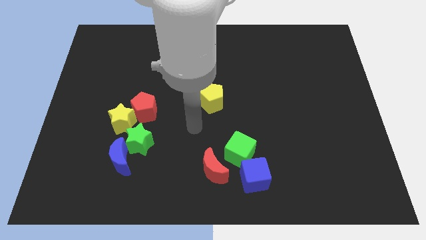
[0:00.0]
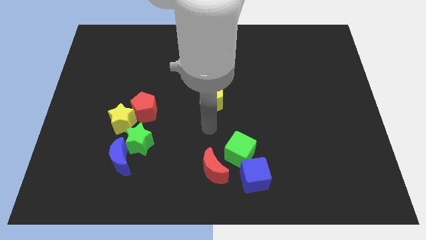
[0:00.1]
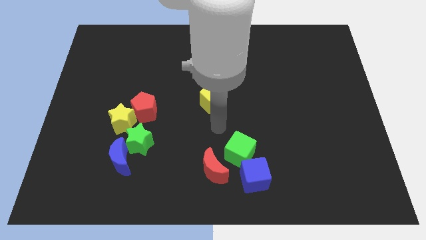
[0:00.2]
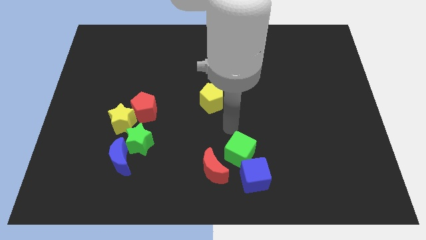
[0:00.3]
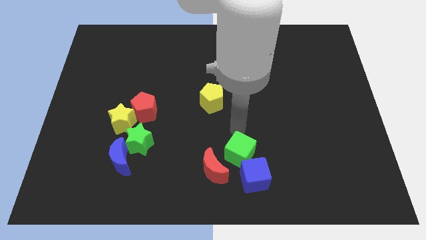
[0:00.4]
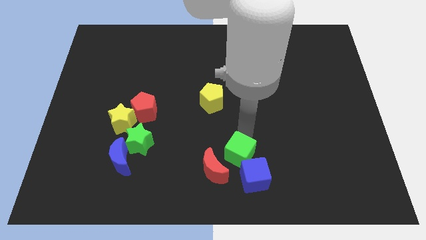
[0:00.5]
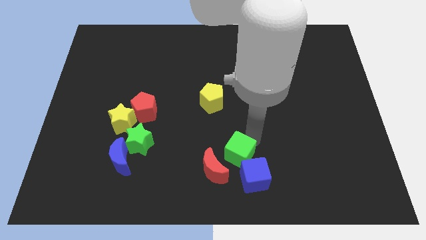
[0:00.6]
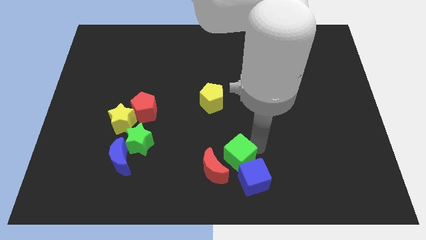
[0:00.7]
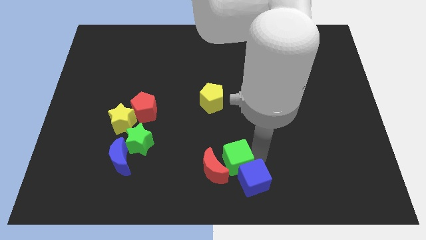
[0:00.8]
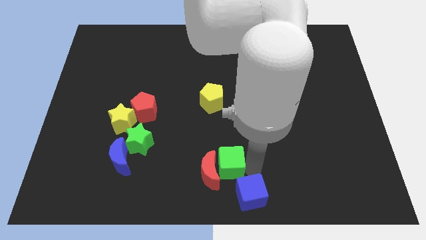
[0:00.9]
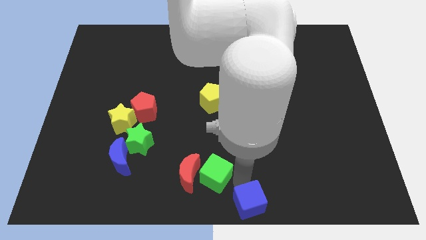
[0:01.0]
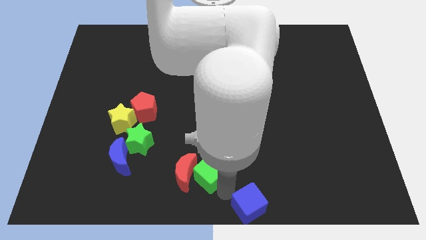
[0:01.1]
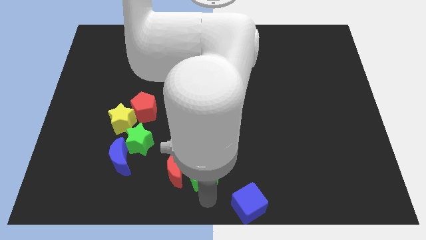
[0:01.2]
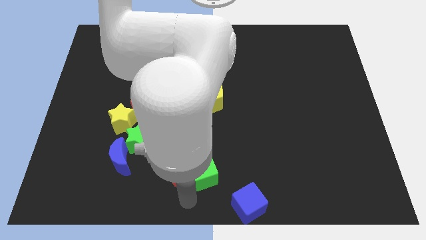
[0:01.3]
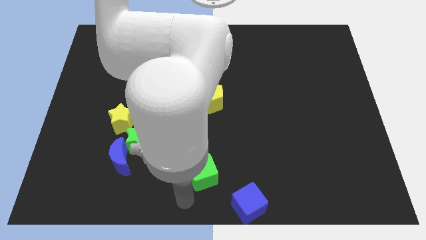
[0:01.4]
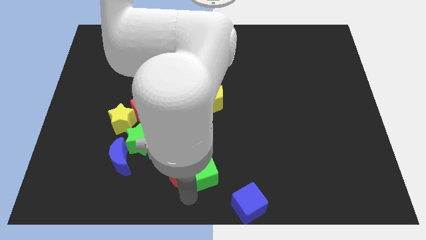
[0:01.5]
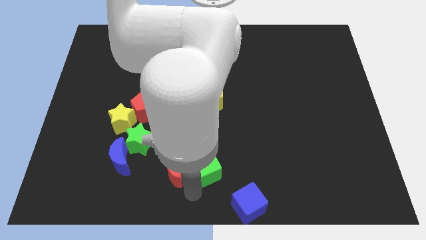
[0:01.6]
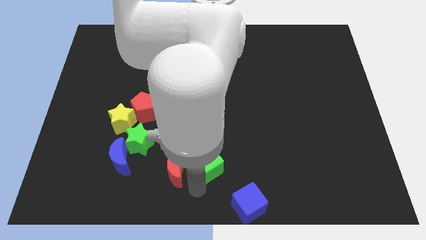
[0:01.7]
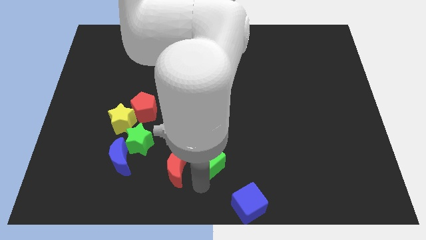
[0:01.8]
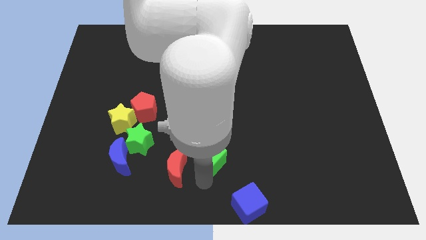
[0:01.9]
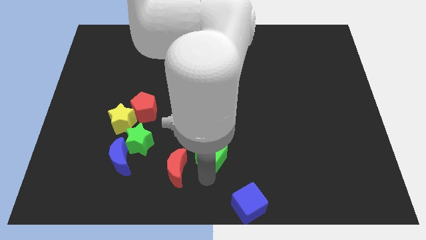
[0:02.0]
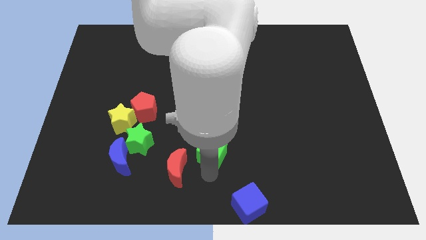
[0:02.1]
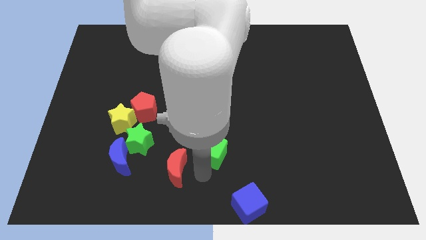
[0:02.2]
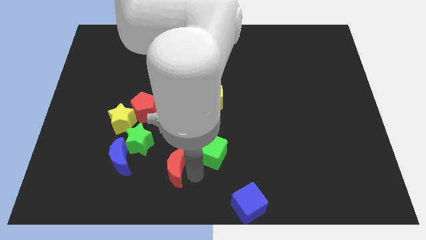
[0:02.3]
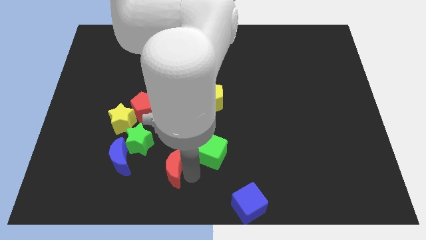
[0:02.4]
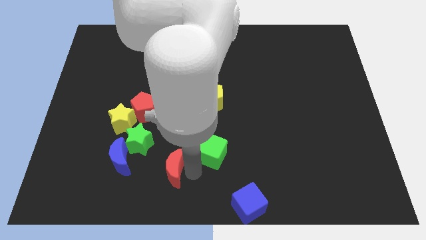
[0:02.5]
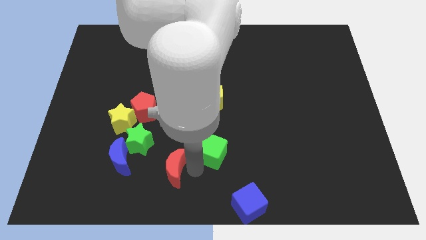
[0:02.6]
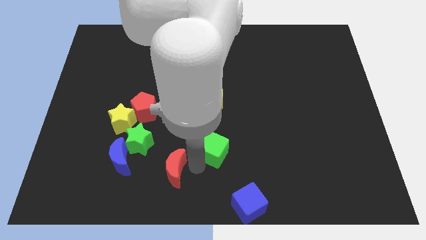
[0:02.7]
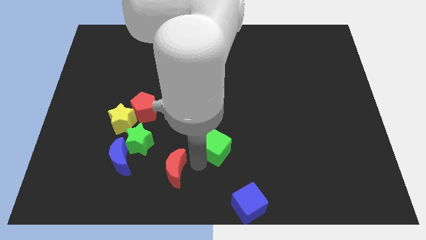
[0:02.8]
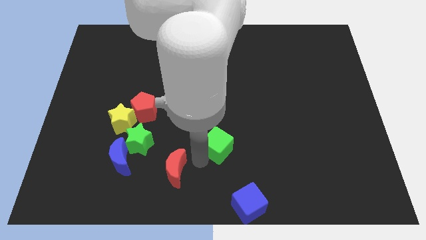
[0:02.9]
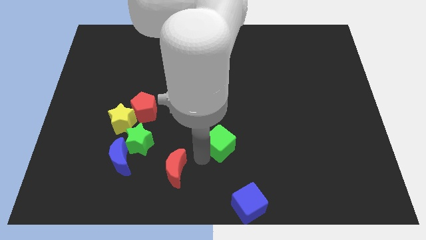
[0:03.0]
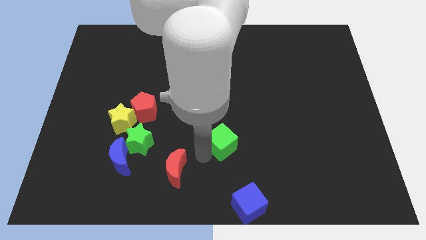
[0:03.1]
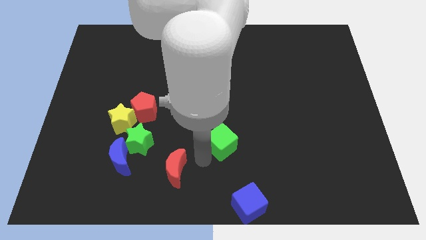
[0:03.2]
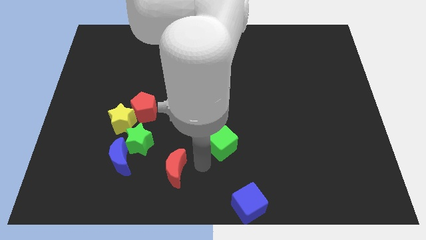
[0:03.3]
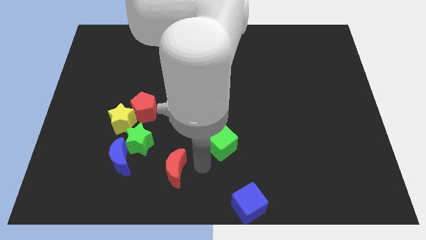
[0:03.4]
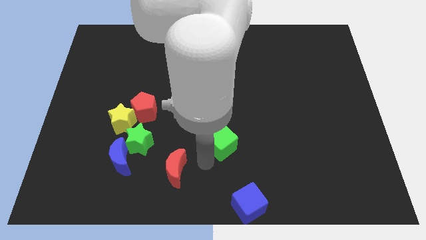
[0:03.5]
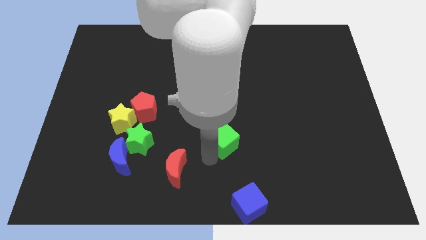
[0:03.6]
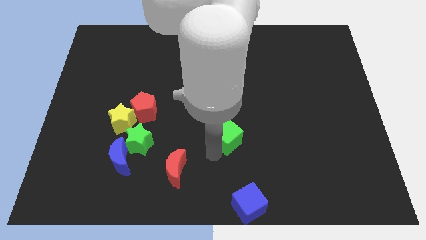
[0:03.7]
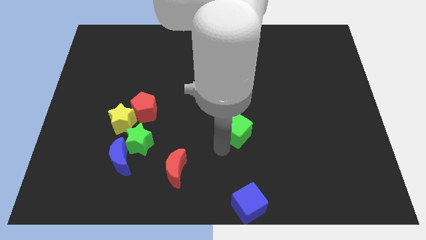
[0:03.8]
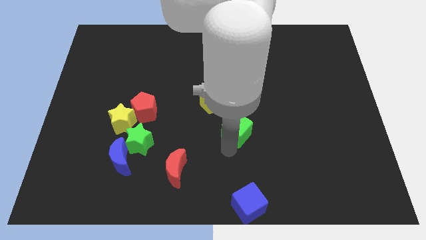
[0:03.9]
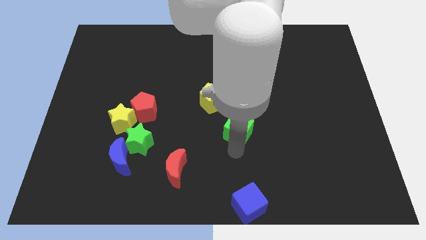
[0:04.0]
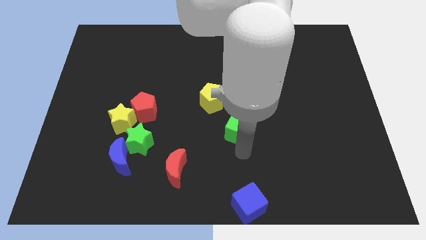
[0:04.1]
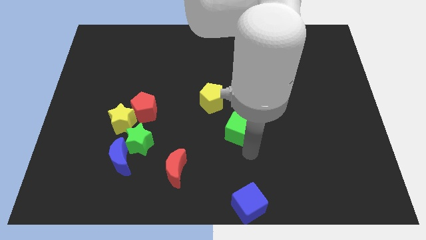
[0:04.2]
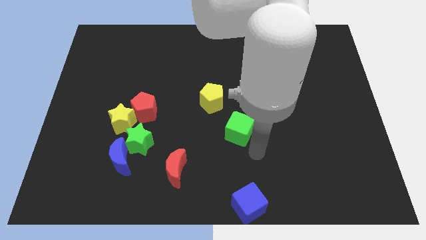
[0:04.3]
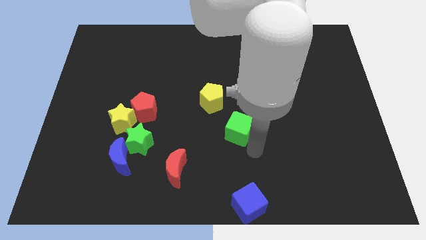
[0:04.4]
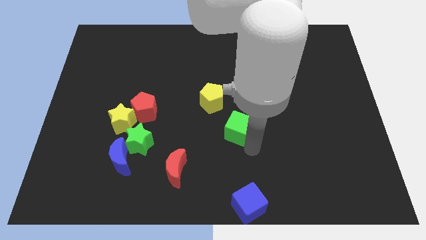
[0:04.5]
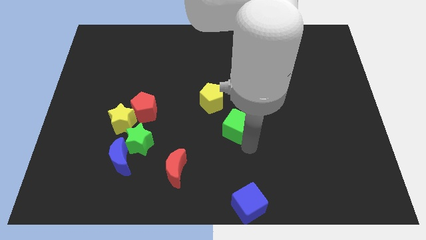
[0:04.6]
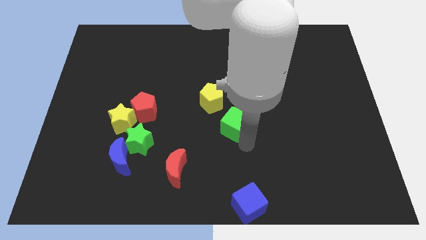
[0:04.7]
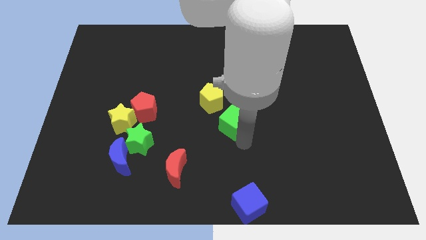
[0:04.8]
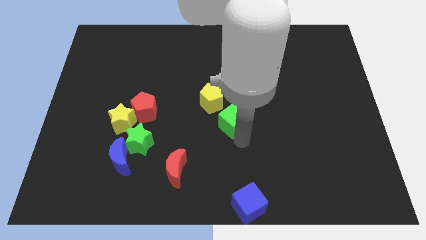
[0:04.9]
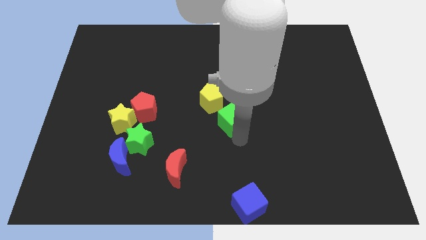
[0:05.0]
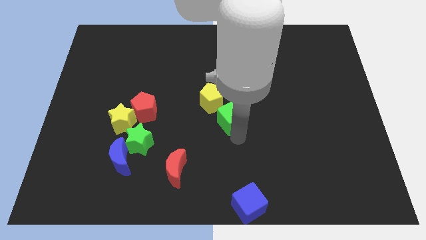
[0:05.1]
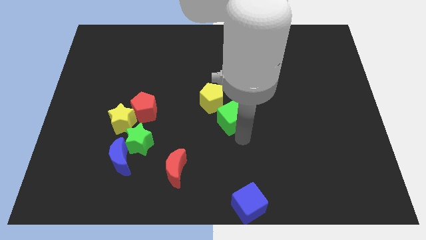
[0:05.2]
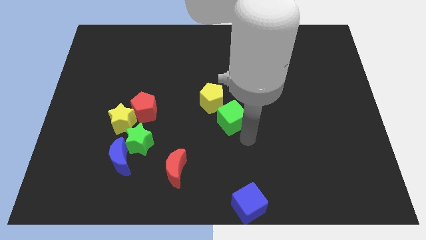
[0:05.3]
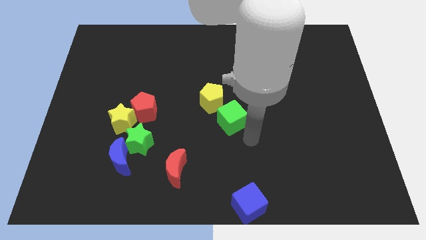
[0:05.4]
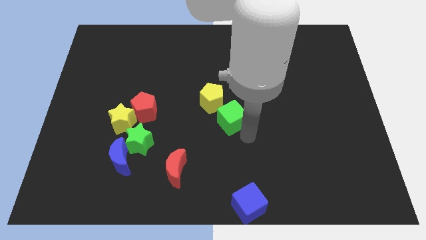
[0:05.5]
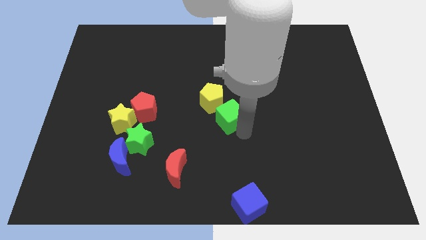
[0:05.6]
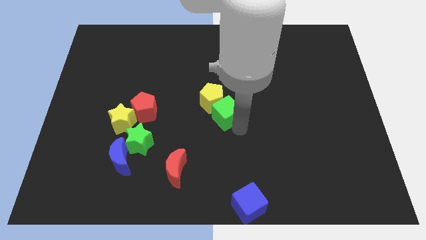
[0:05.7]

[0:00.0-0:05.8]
push the green cube to the yellow pentagon

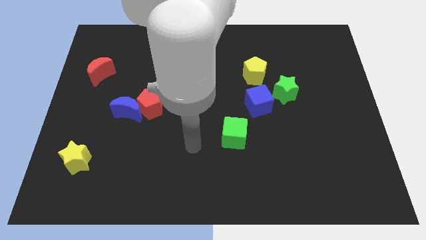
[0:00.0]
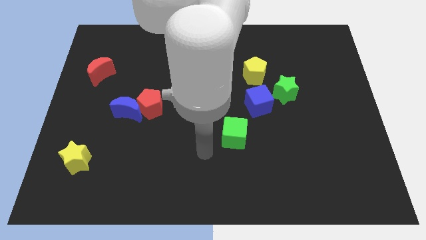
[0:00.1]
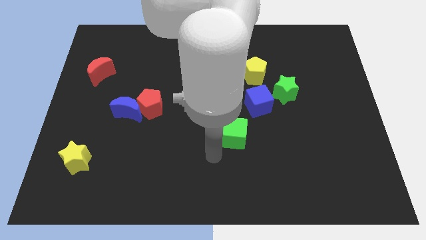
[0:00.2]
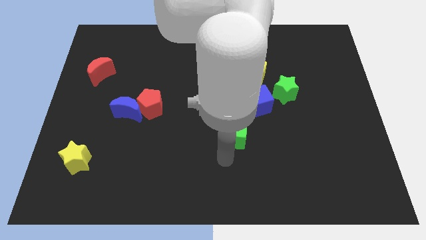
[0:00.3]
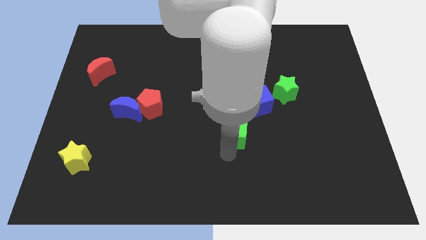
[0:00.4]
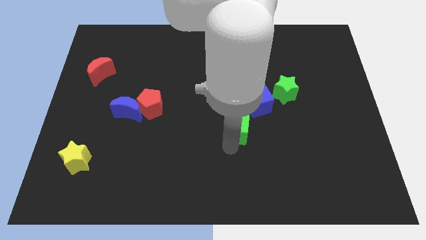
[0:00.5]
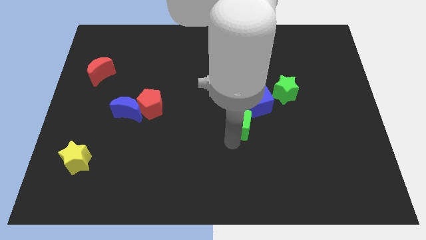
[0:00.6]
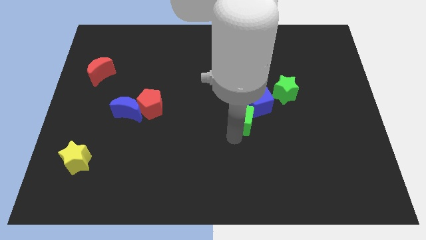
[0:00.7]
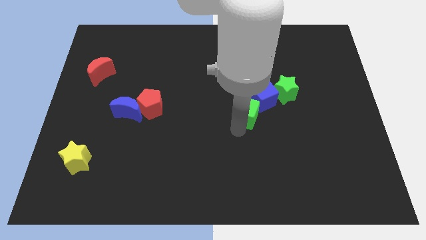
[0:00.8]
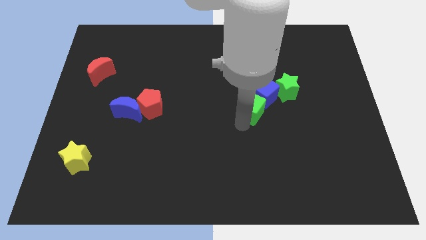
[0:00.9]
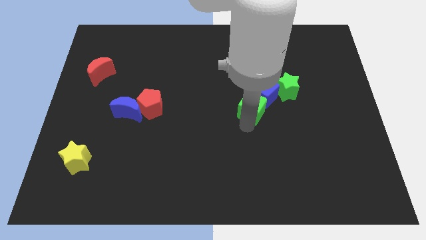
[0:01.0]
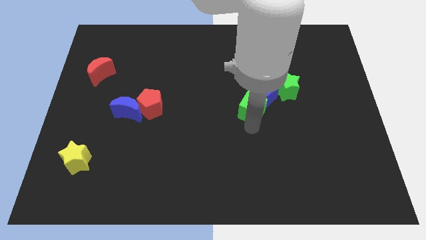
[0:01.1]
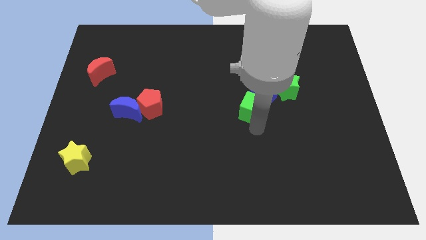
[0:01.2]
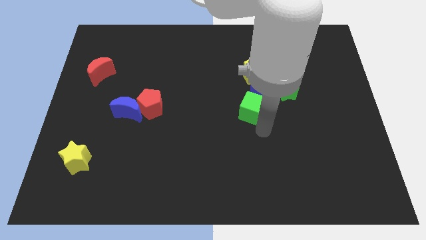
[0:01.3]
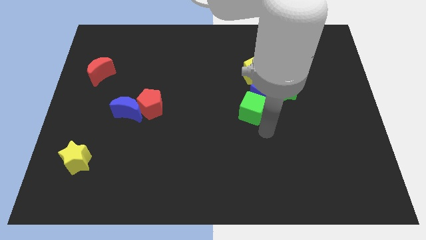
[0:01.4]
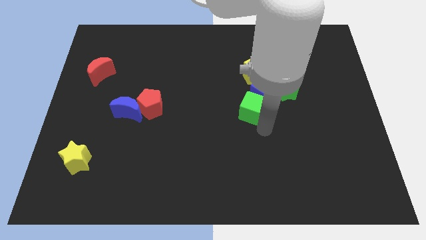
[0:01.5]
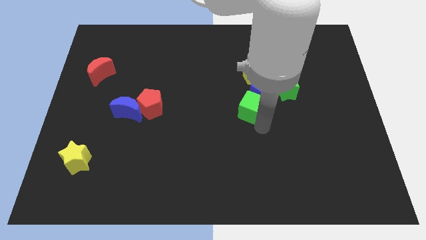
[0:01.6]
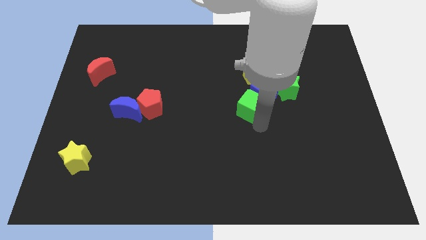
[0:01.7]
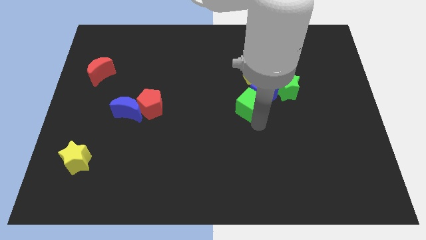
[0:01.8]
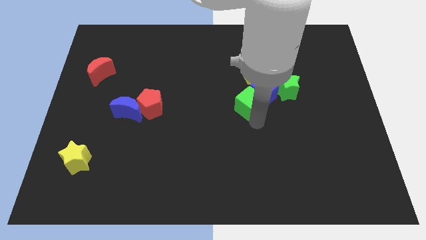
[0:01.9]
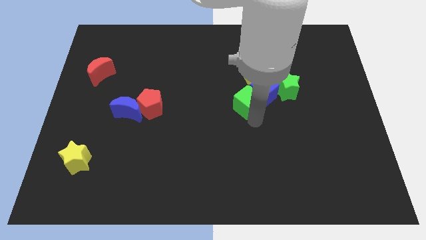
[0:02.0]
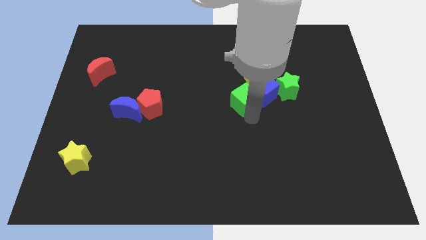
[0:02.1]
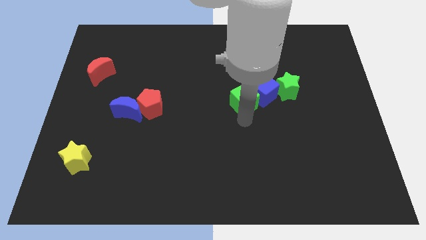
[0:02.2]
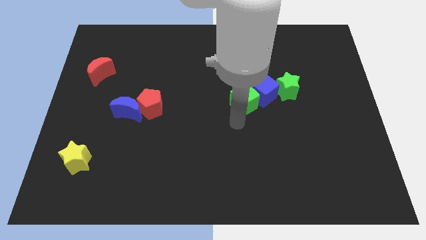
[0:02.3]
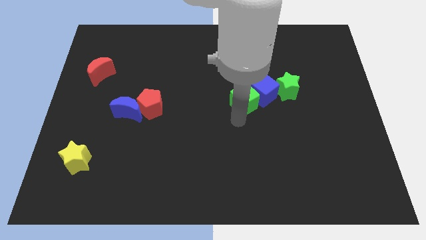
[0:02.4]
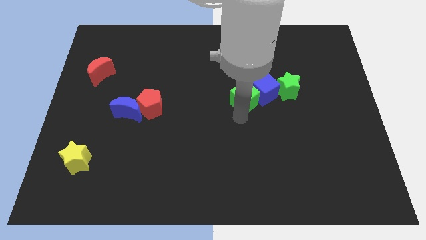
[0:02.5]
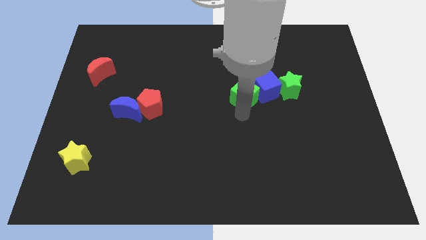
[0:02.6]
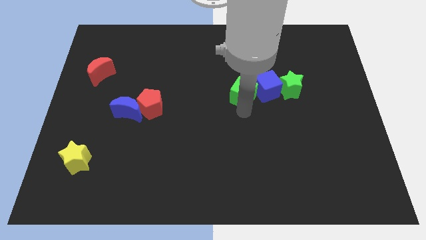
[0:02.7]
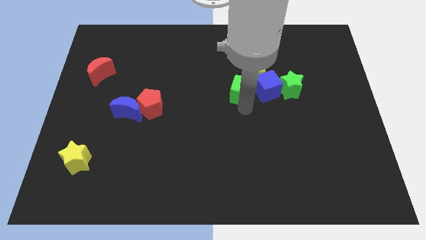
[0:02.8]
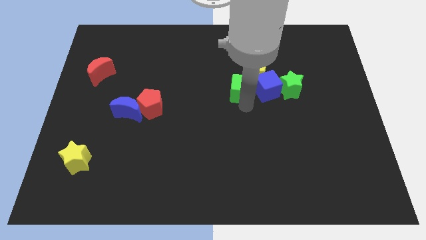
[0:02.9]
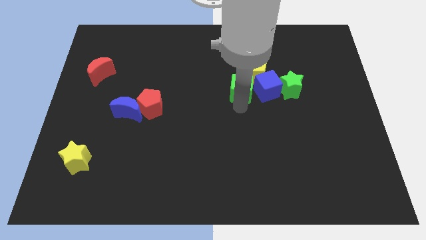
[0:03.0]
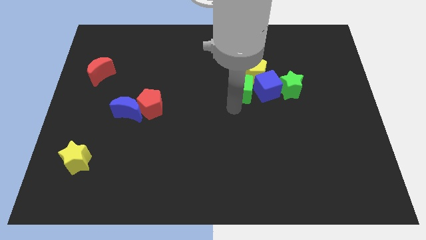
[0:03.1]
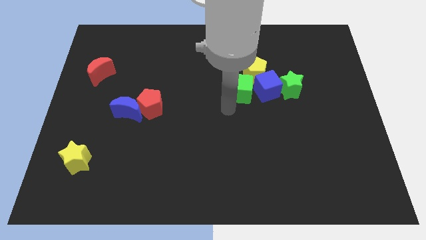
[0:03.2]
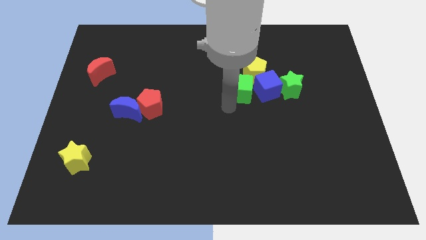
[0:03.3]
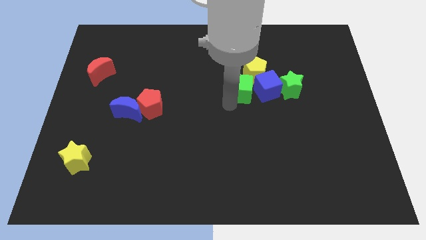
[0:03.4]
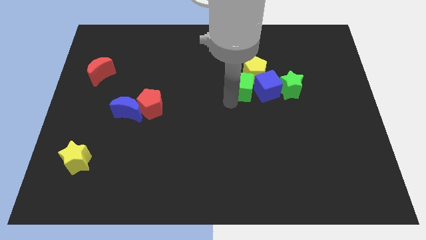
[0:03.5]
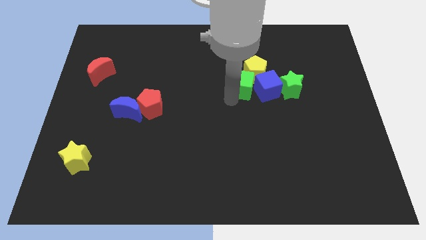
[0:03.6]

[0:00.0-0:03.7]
move the green cube close to the yellow pentagon
